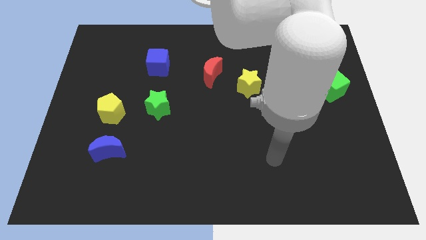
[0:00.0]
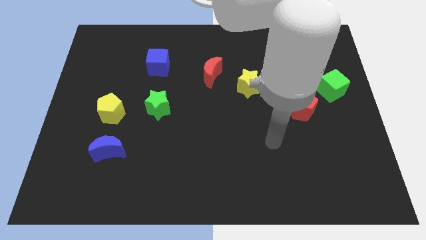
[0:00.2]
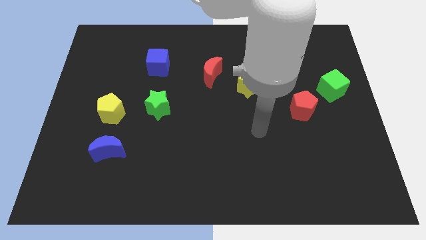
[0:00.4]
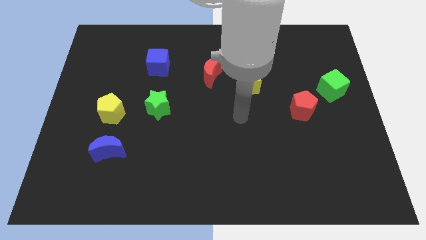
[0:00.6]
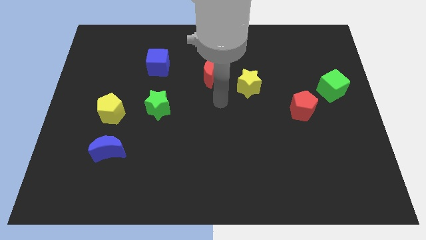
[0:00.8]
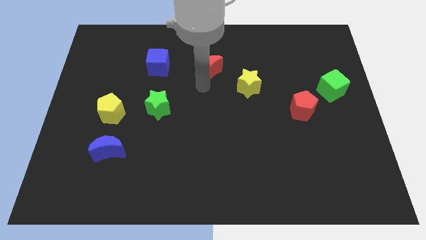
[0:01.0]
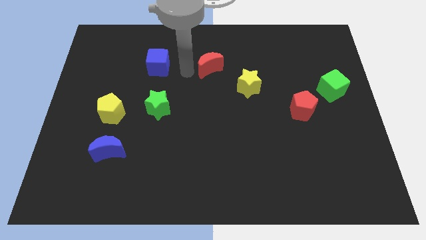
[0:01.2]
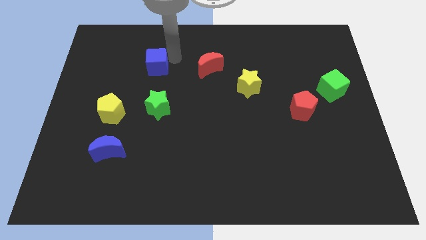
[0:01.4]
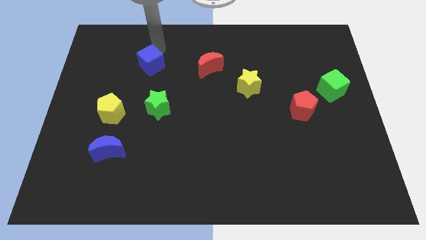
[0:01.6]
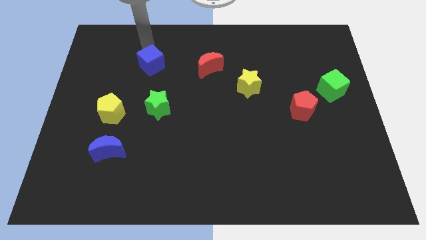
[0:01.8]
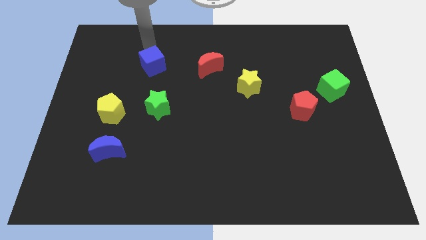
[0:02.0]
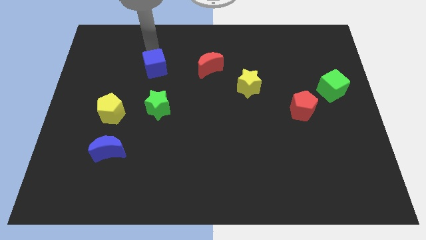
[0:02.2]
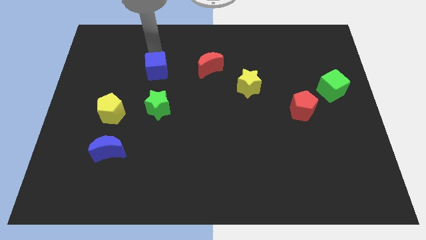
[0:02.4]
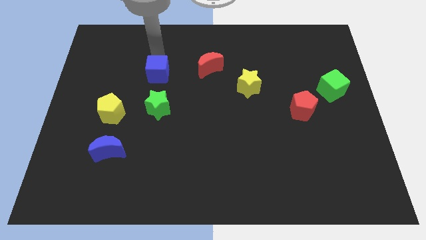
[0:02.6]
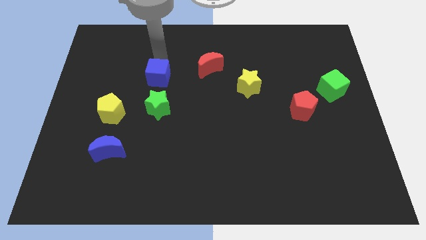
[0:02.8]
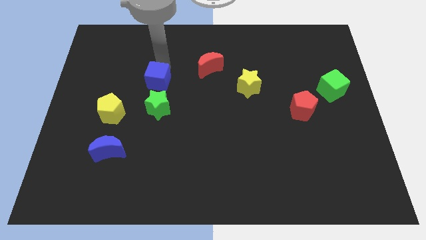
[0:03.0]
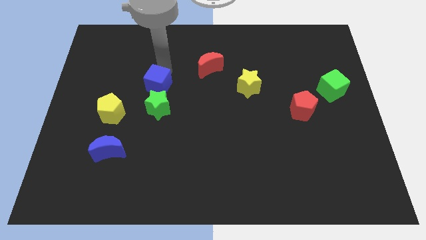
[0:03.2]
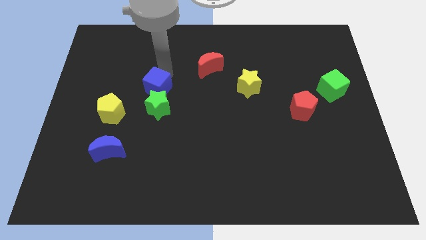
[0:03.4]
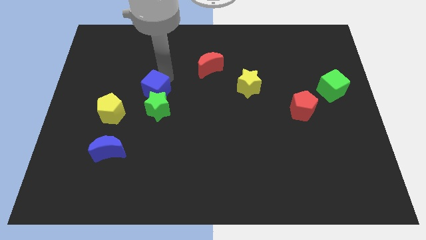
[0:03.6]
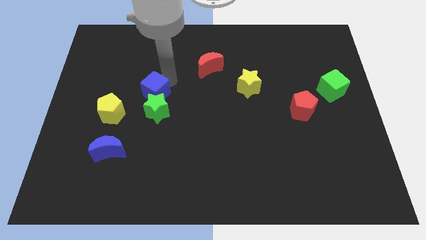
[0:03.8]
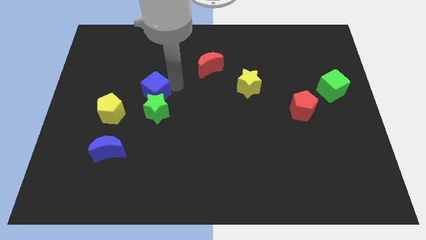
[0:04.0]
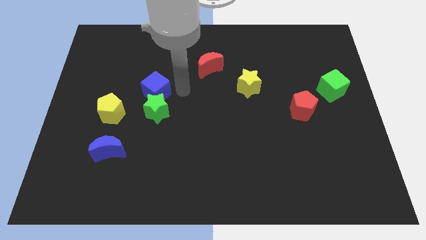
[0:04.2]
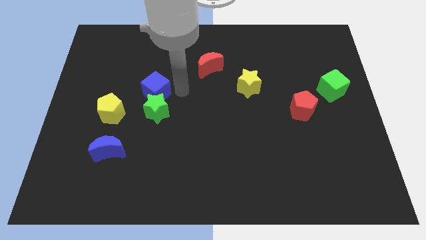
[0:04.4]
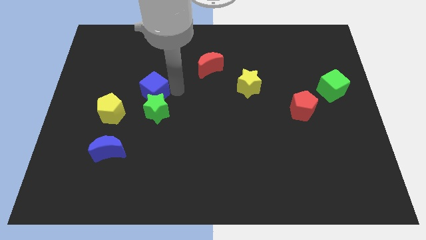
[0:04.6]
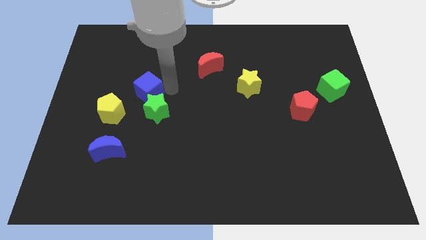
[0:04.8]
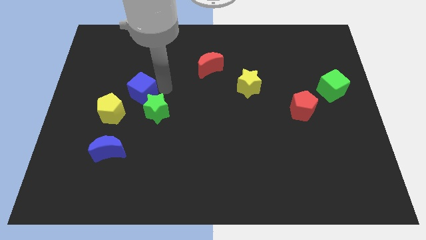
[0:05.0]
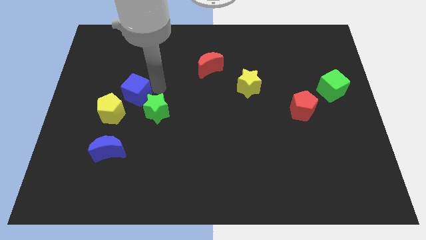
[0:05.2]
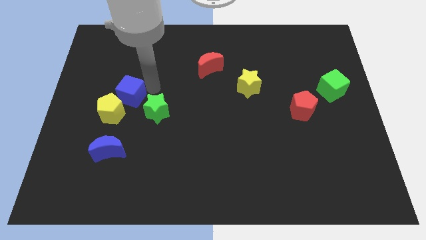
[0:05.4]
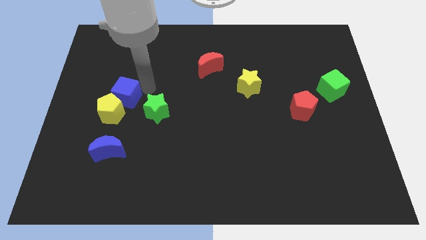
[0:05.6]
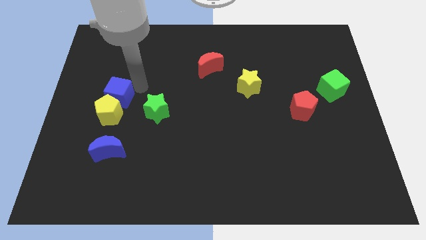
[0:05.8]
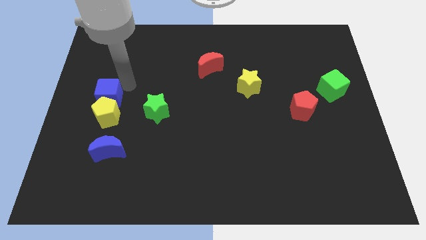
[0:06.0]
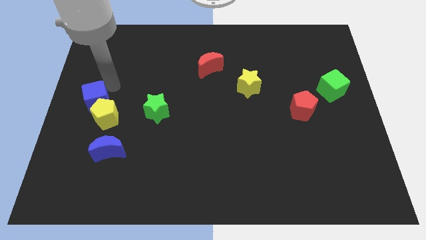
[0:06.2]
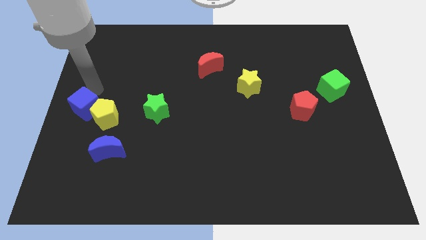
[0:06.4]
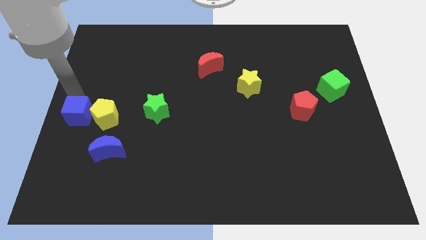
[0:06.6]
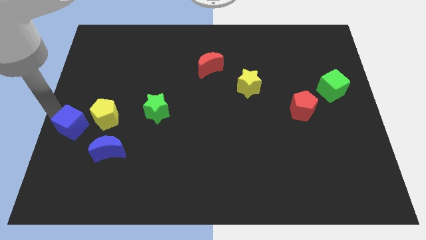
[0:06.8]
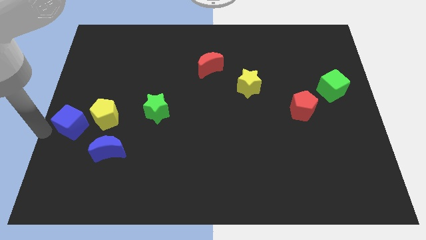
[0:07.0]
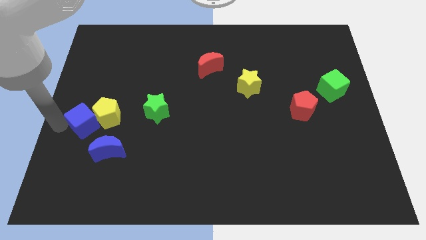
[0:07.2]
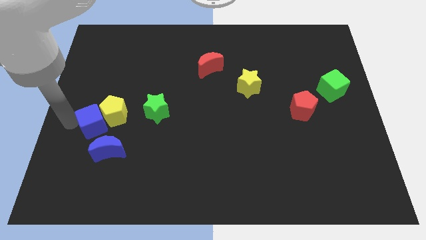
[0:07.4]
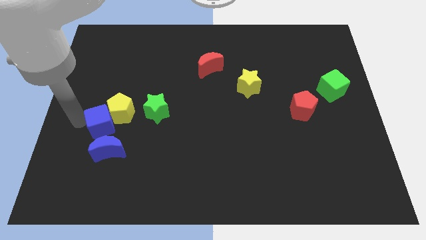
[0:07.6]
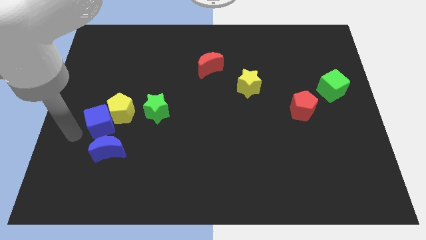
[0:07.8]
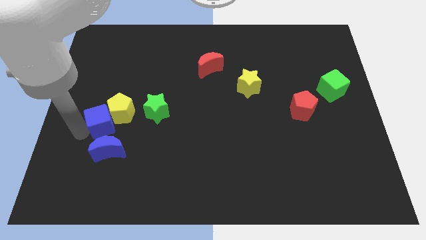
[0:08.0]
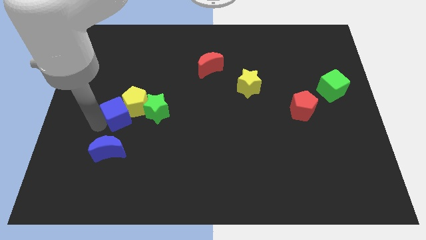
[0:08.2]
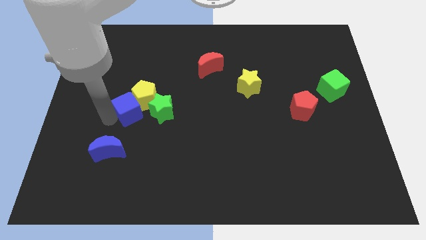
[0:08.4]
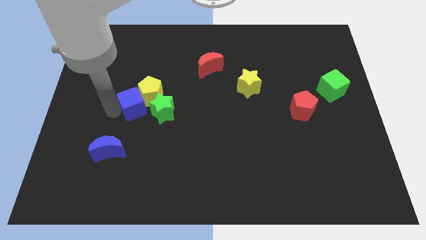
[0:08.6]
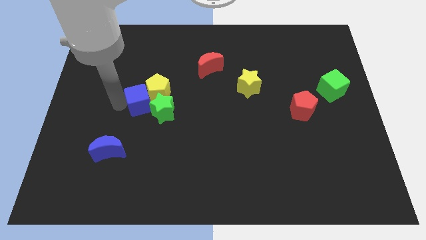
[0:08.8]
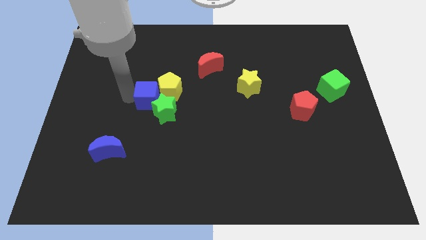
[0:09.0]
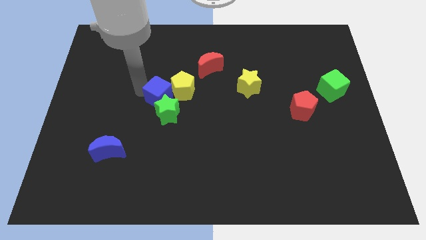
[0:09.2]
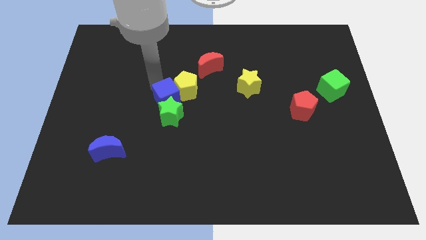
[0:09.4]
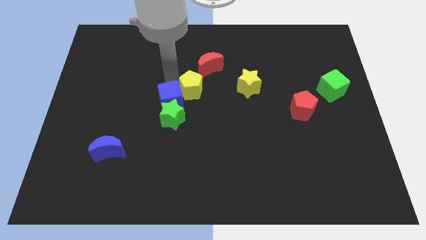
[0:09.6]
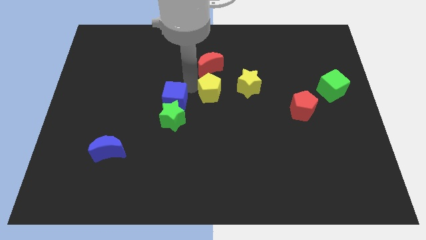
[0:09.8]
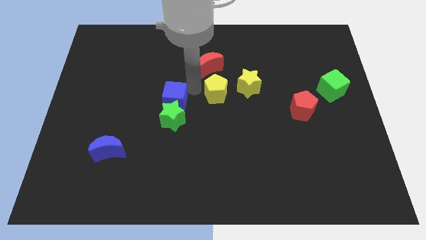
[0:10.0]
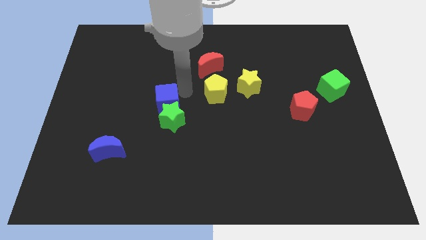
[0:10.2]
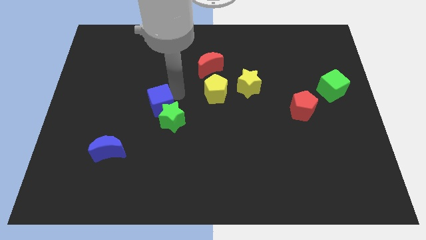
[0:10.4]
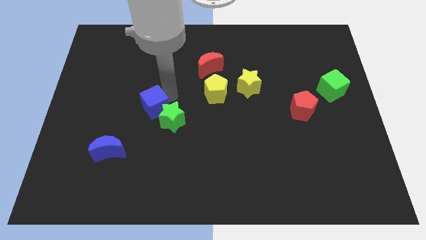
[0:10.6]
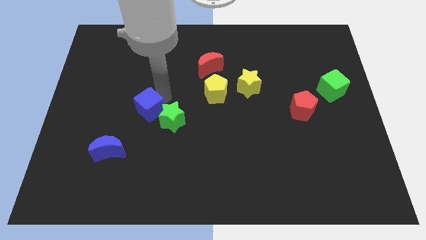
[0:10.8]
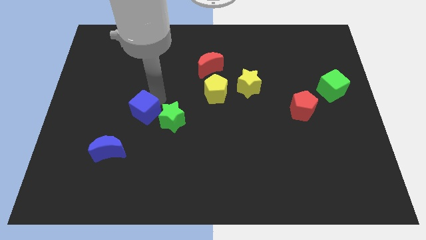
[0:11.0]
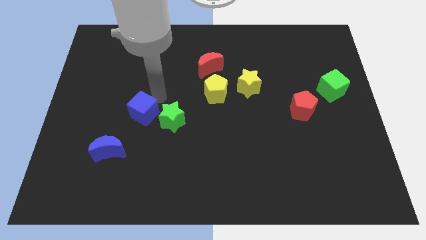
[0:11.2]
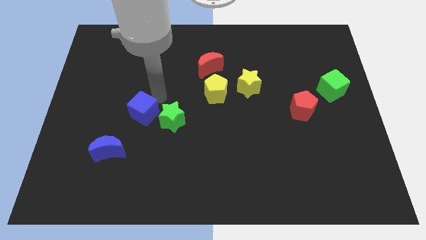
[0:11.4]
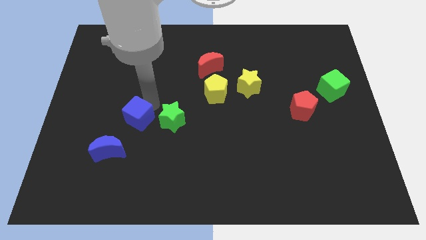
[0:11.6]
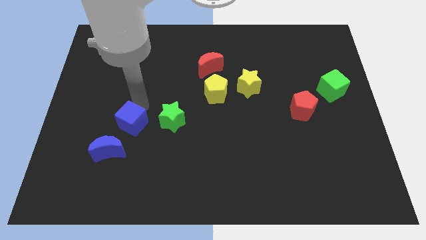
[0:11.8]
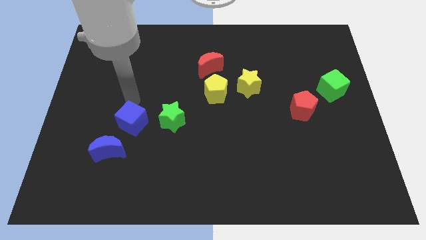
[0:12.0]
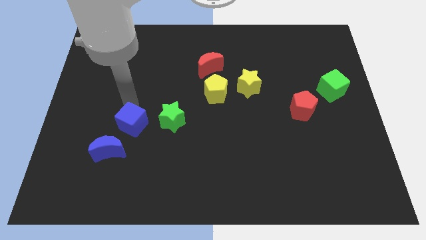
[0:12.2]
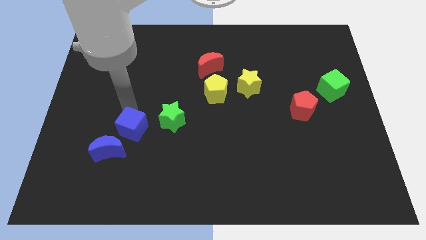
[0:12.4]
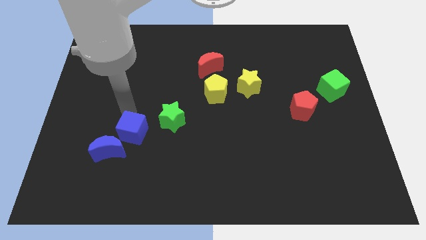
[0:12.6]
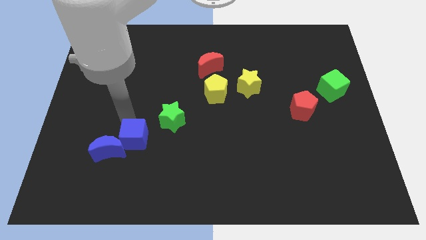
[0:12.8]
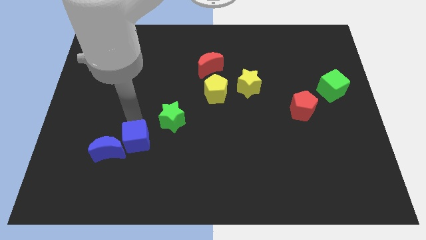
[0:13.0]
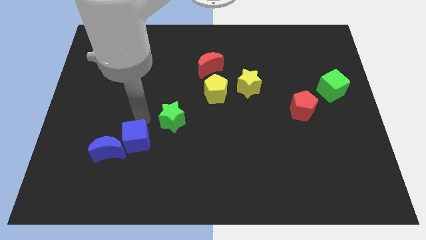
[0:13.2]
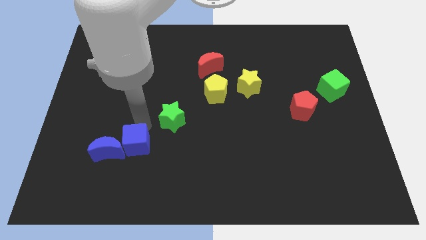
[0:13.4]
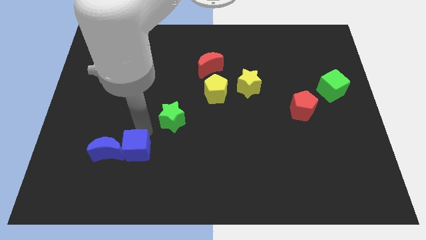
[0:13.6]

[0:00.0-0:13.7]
push the blue cube to the bottom right of the blue moon

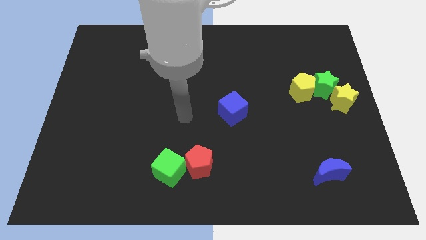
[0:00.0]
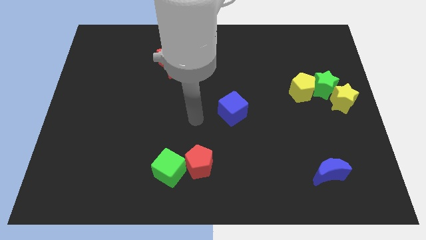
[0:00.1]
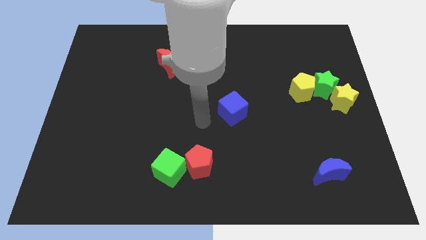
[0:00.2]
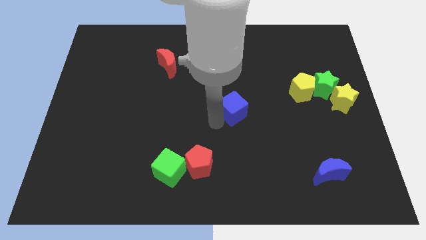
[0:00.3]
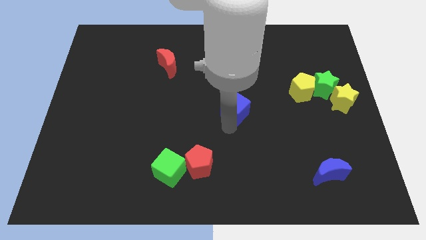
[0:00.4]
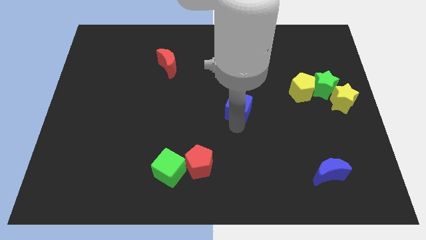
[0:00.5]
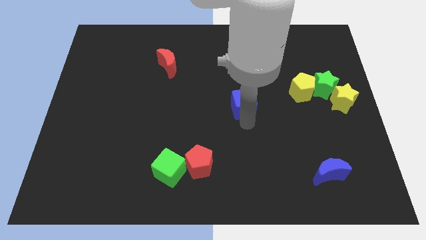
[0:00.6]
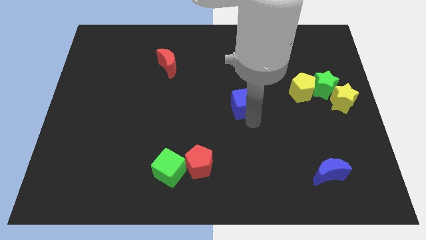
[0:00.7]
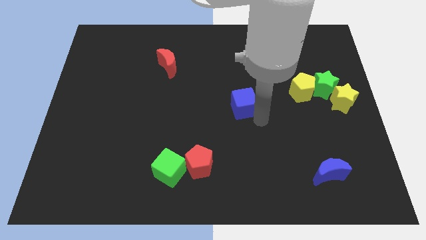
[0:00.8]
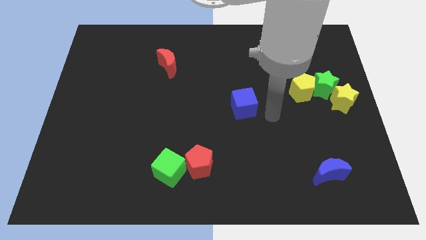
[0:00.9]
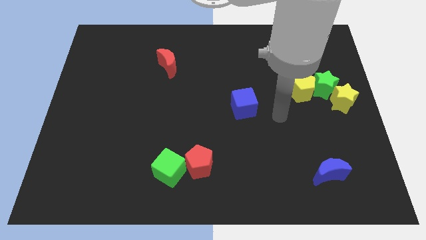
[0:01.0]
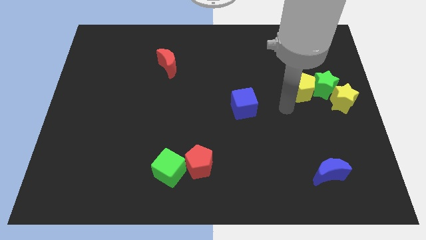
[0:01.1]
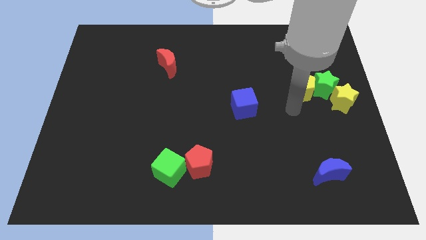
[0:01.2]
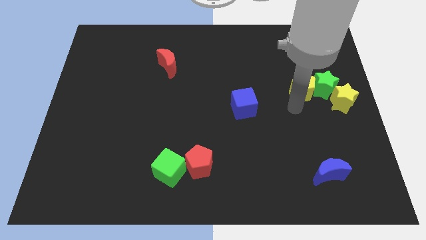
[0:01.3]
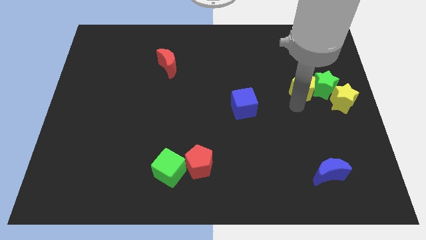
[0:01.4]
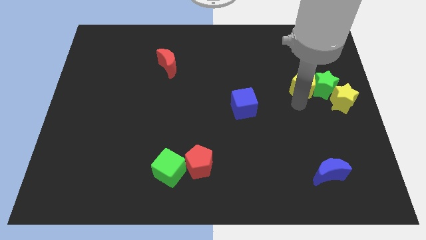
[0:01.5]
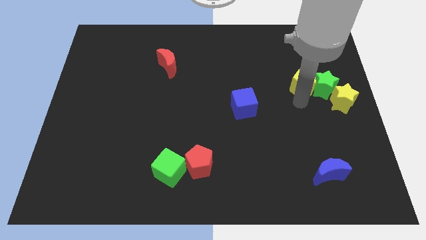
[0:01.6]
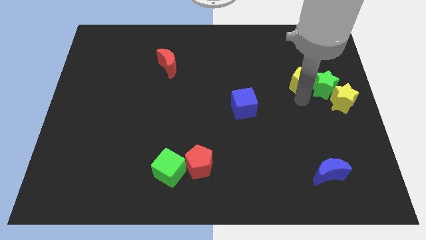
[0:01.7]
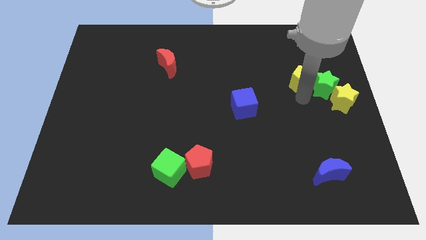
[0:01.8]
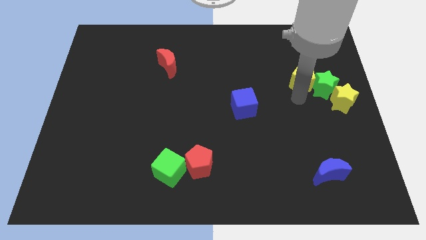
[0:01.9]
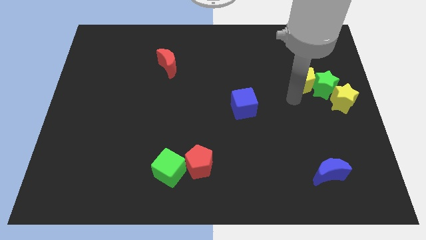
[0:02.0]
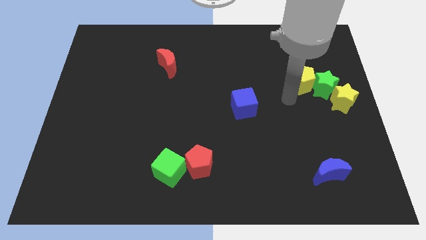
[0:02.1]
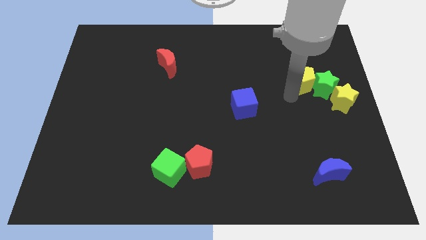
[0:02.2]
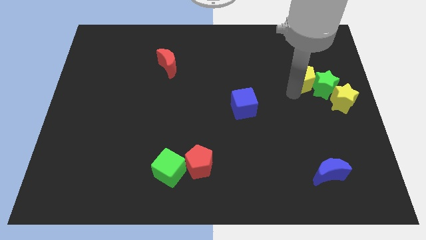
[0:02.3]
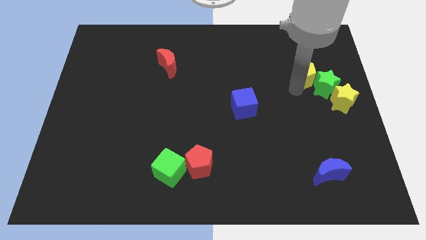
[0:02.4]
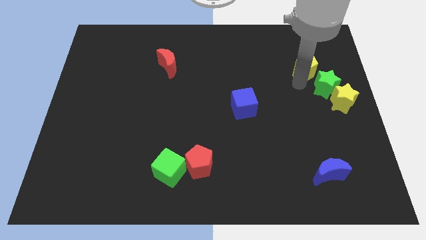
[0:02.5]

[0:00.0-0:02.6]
push the yellow pentagon to the top side of the green star
